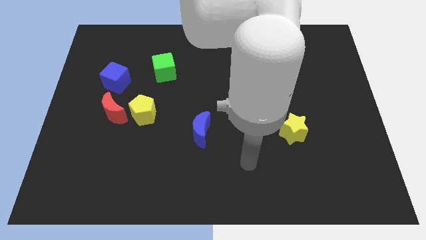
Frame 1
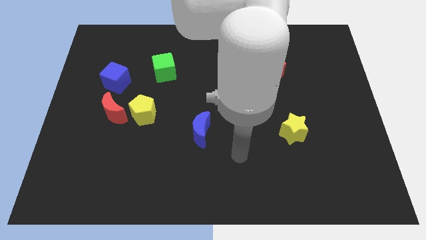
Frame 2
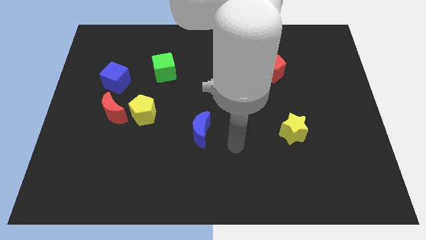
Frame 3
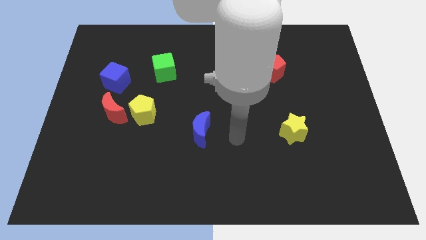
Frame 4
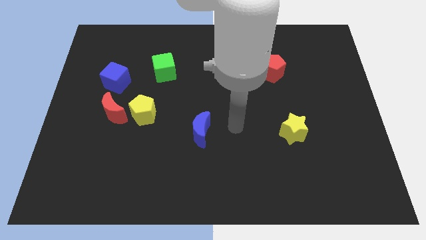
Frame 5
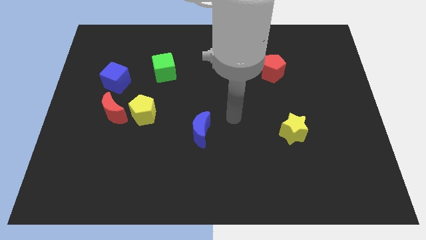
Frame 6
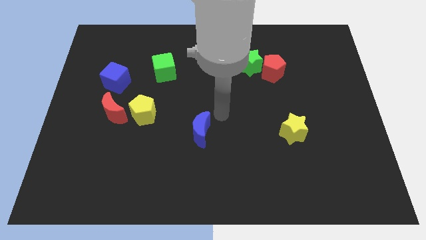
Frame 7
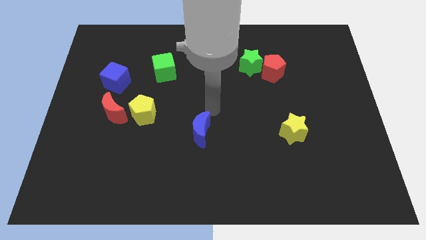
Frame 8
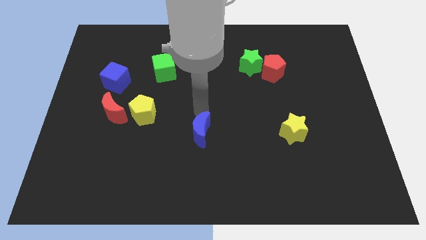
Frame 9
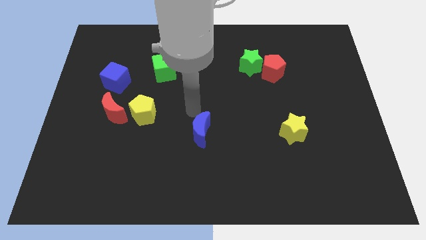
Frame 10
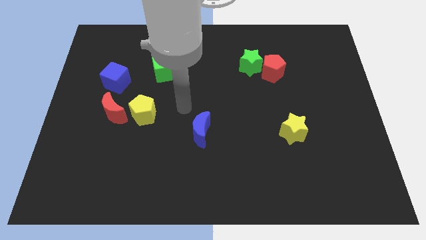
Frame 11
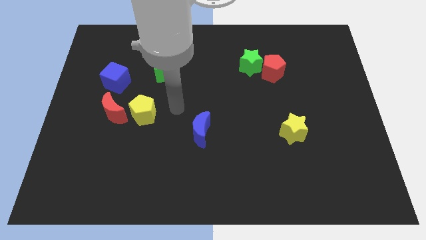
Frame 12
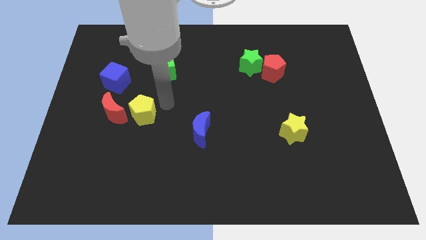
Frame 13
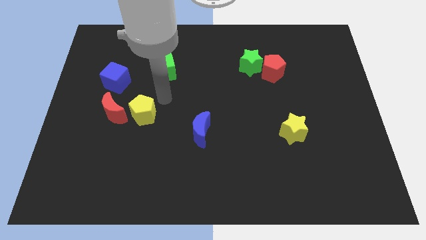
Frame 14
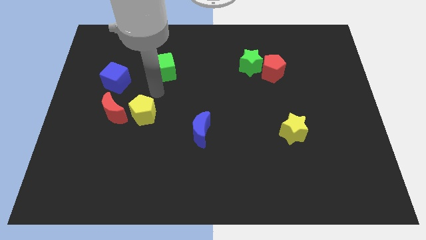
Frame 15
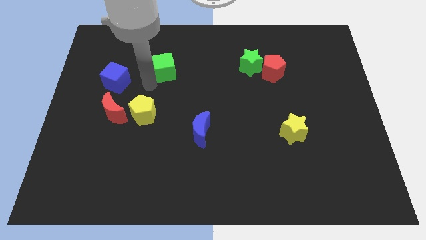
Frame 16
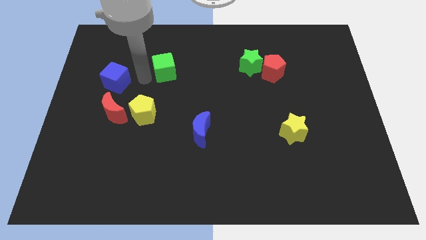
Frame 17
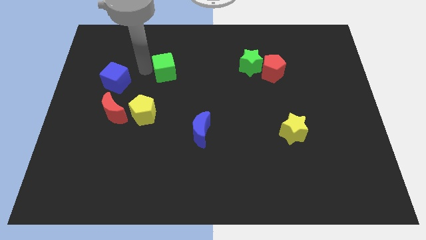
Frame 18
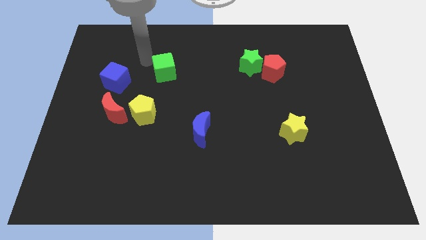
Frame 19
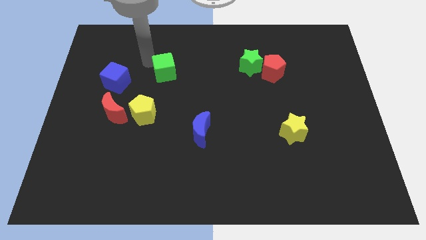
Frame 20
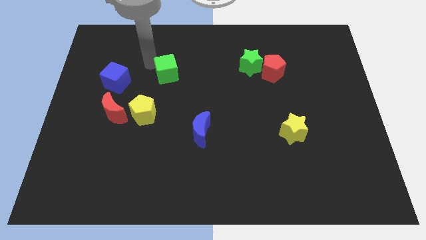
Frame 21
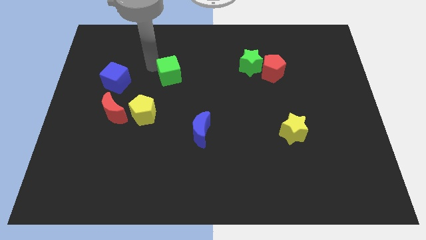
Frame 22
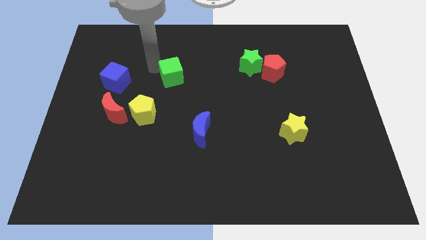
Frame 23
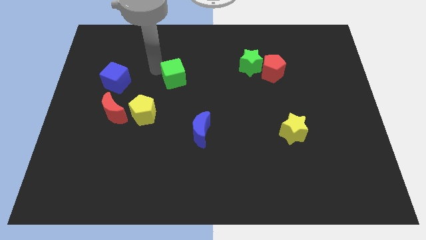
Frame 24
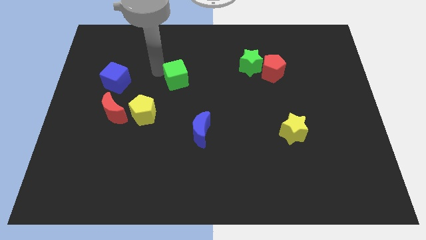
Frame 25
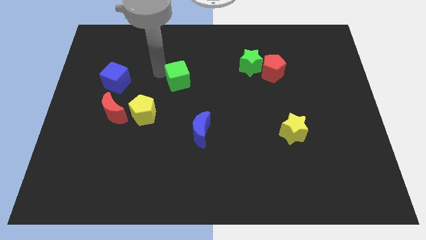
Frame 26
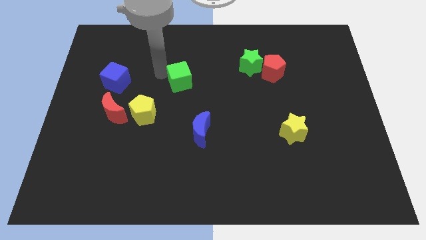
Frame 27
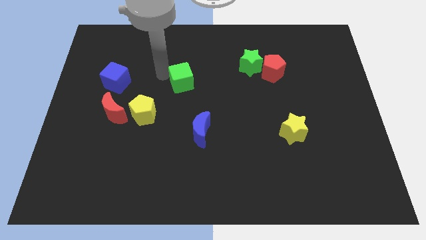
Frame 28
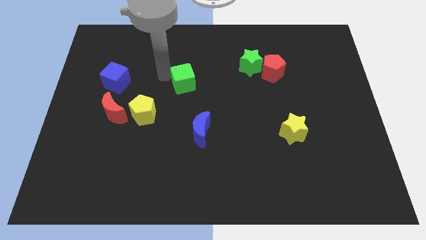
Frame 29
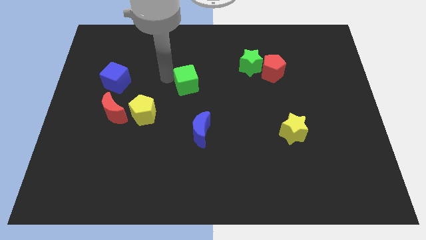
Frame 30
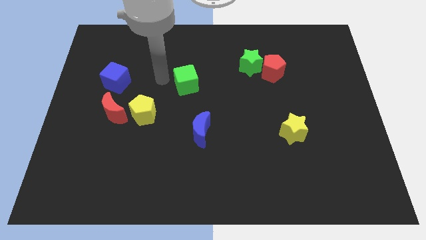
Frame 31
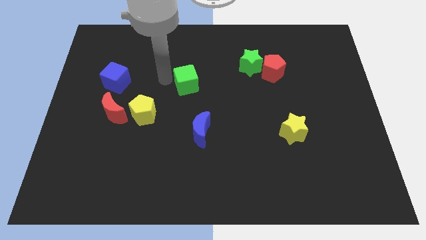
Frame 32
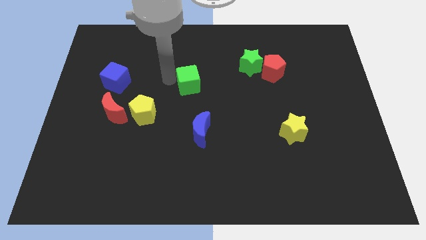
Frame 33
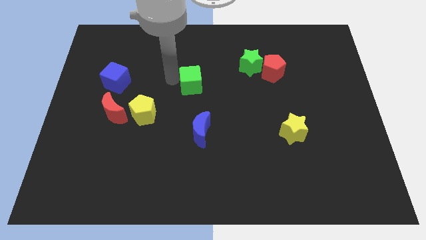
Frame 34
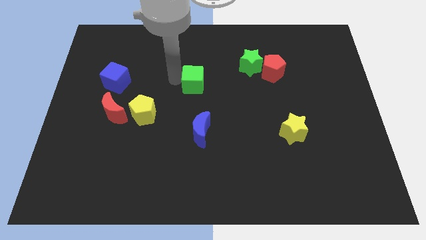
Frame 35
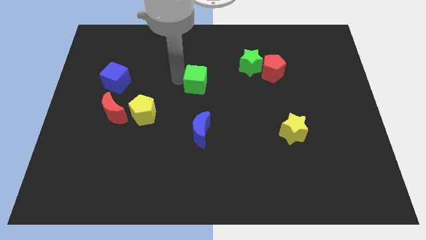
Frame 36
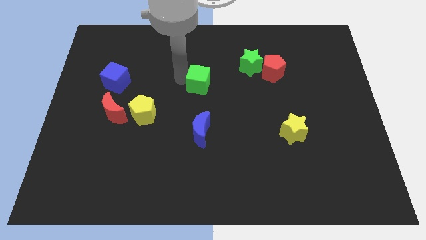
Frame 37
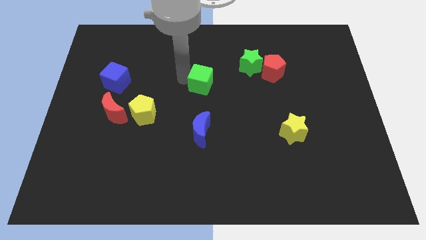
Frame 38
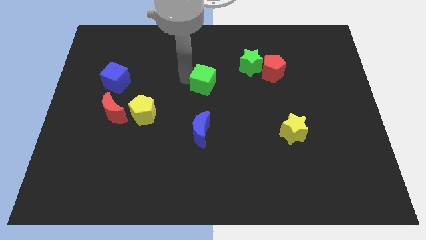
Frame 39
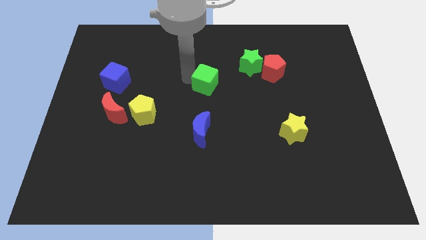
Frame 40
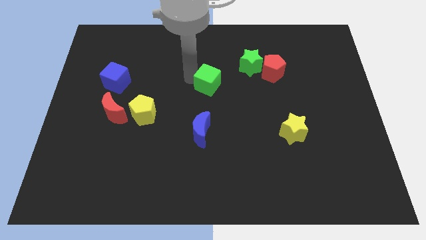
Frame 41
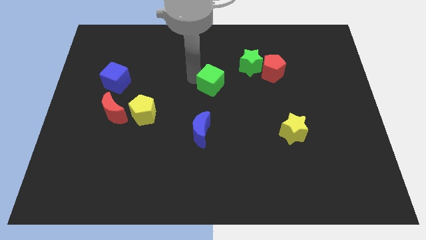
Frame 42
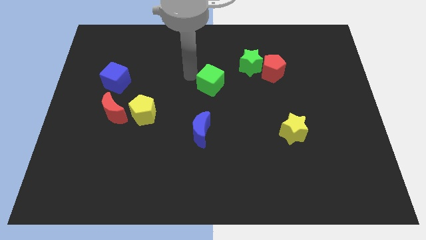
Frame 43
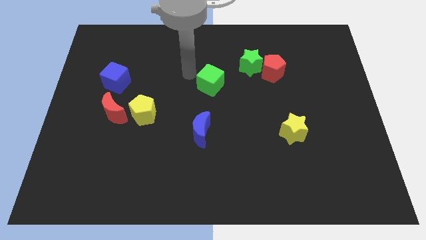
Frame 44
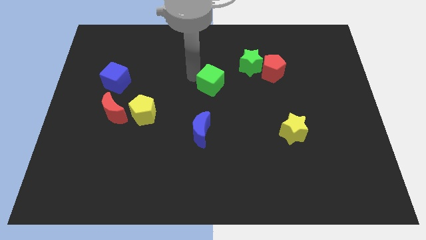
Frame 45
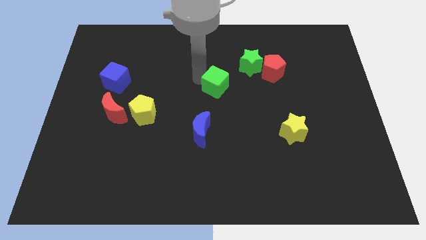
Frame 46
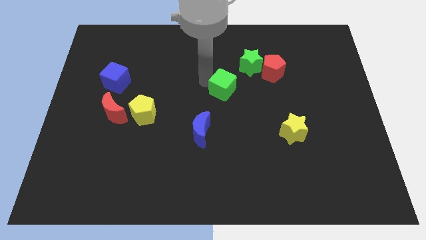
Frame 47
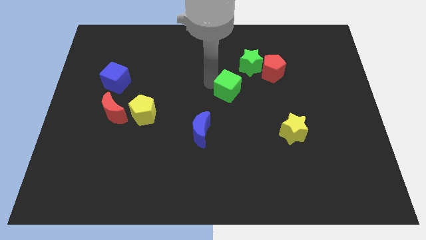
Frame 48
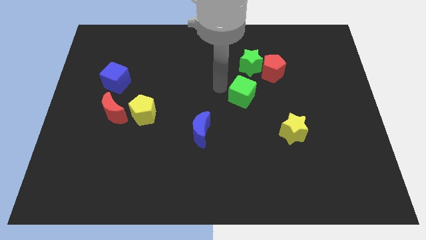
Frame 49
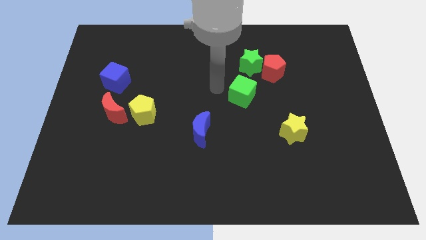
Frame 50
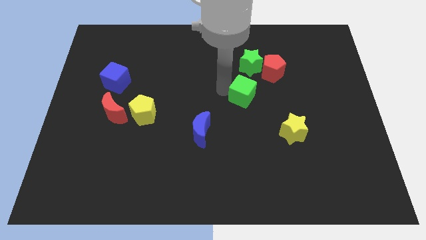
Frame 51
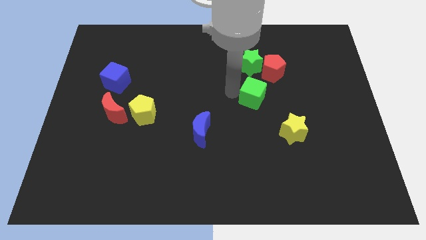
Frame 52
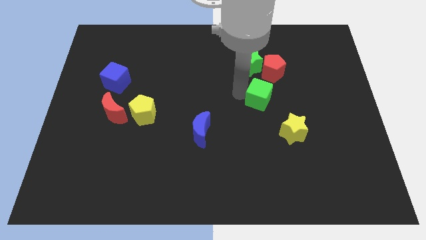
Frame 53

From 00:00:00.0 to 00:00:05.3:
slide the green cube below the red pentagon

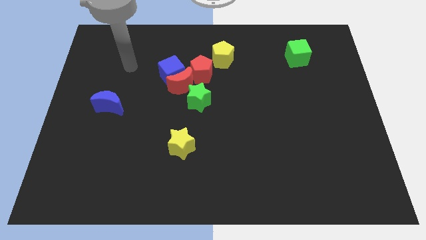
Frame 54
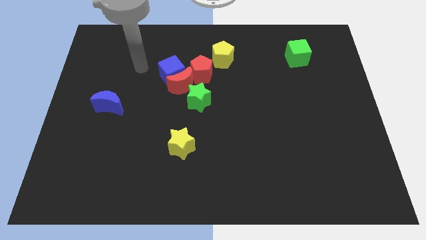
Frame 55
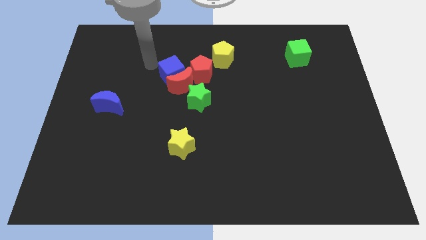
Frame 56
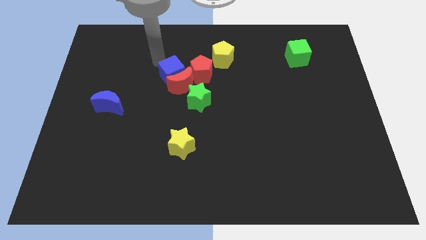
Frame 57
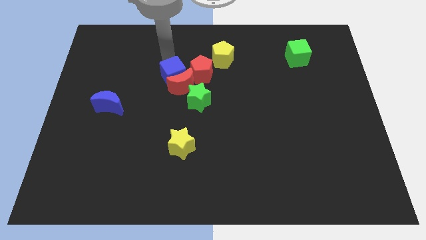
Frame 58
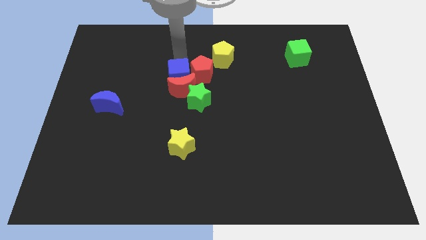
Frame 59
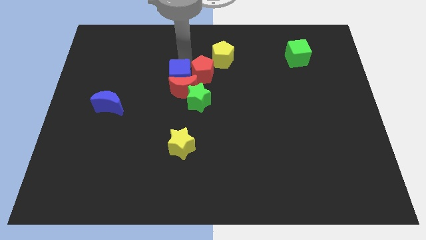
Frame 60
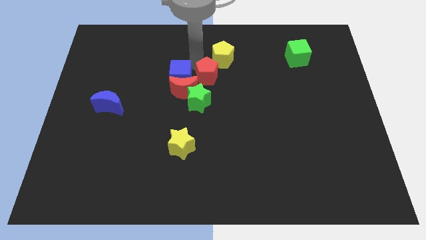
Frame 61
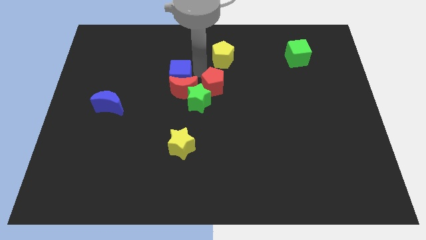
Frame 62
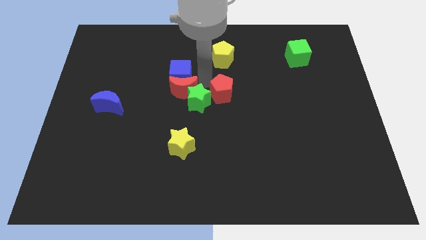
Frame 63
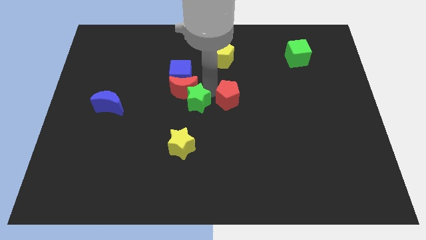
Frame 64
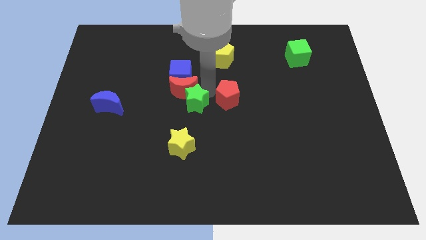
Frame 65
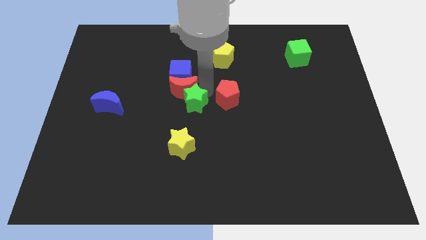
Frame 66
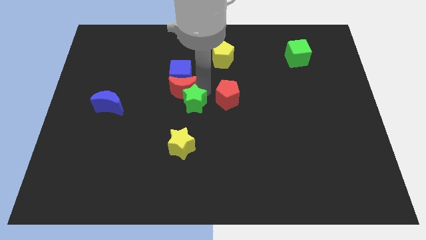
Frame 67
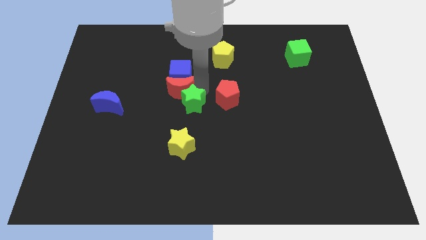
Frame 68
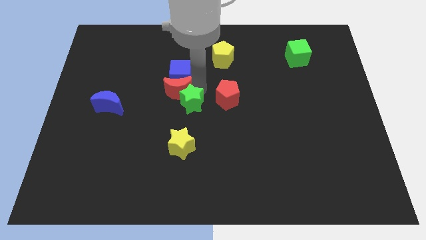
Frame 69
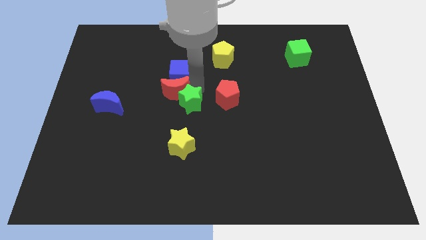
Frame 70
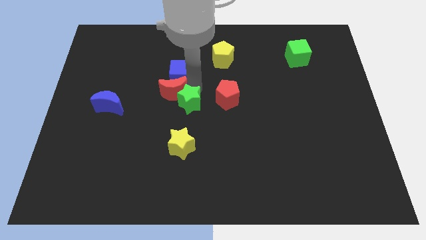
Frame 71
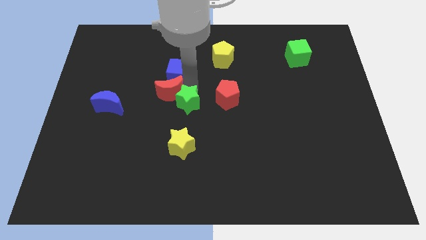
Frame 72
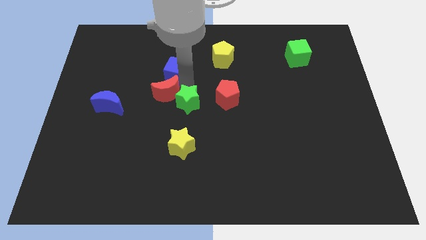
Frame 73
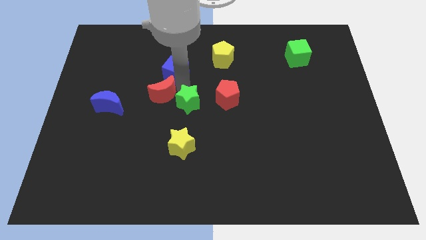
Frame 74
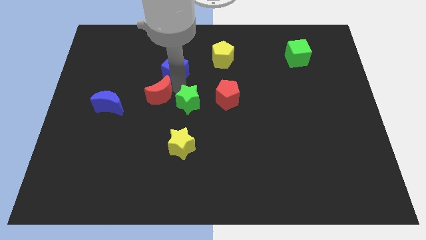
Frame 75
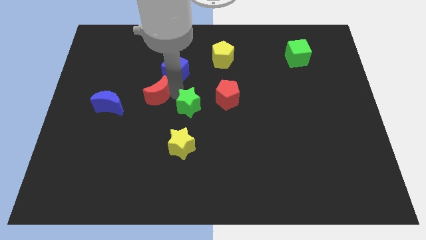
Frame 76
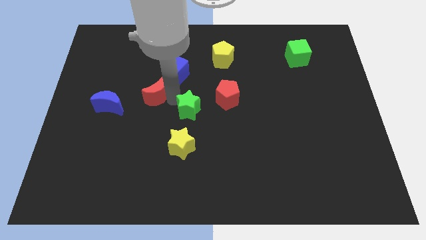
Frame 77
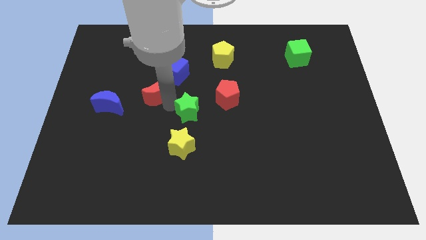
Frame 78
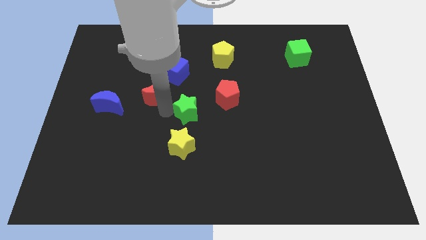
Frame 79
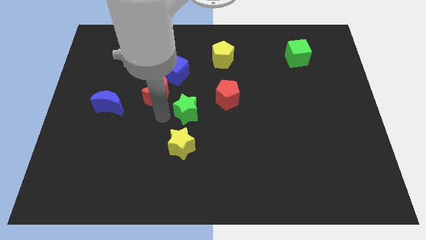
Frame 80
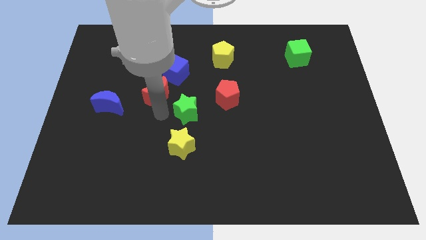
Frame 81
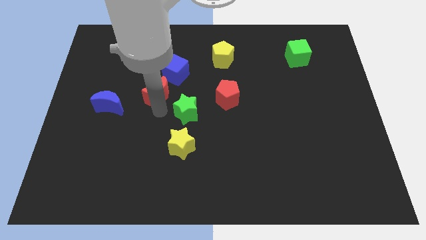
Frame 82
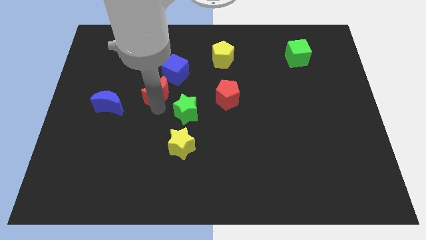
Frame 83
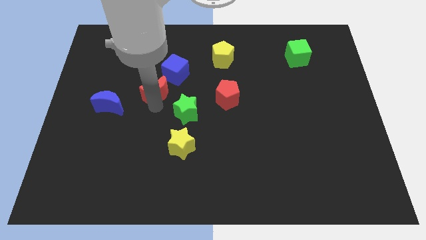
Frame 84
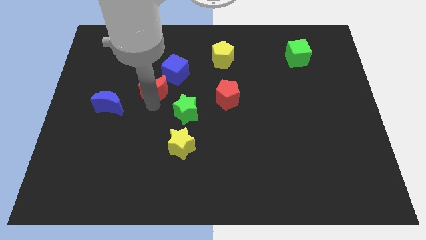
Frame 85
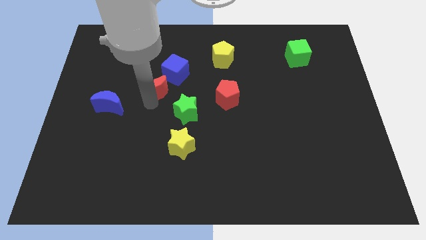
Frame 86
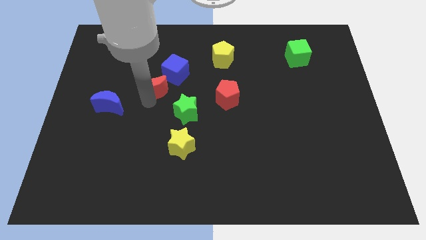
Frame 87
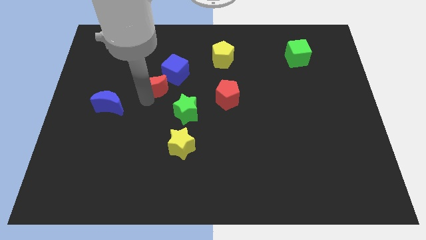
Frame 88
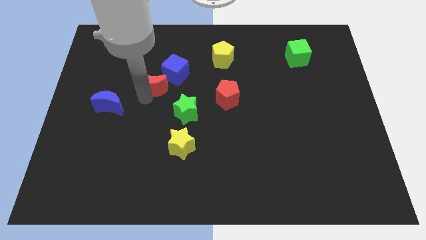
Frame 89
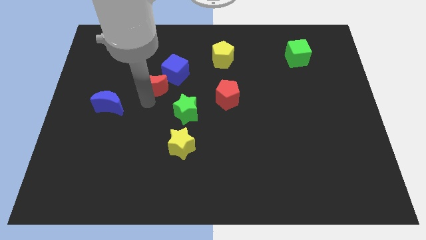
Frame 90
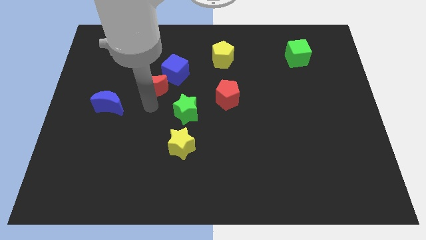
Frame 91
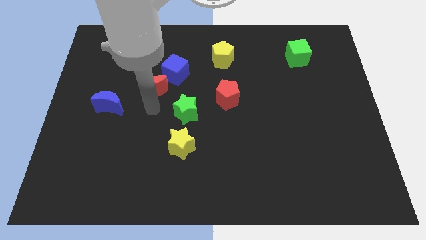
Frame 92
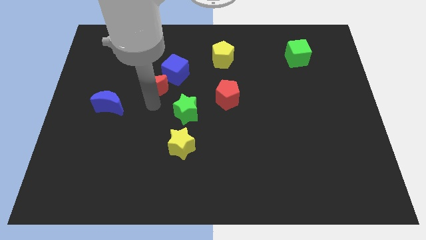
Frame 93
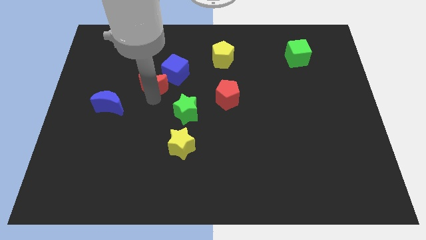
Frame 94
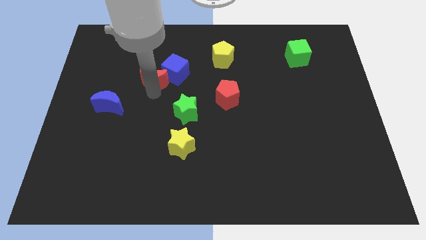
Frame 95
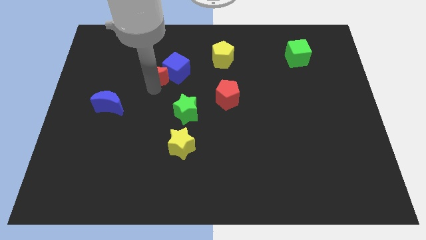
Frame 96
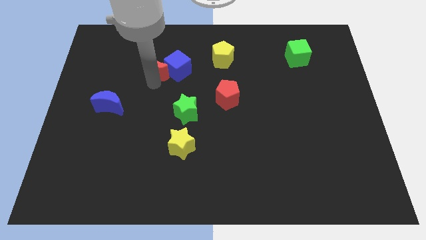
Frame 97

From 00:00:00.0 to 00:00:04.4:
put the red moon diagonally up and to the left of the blue cube
